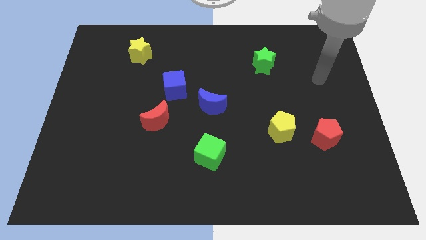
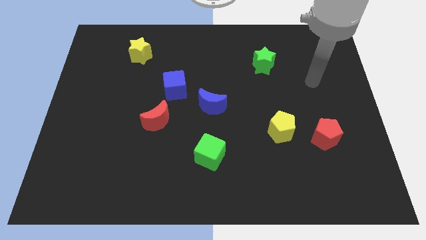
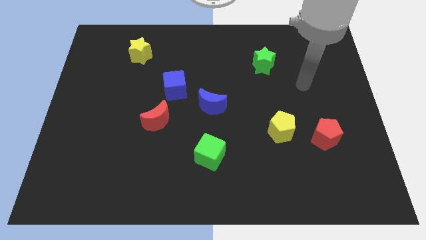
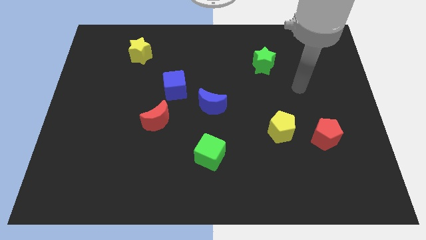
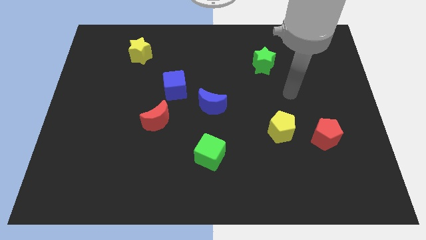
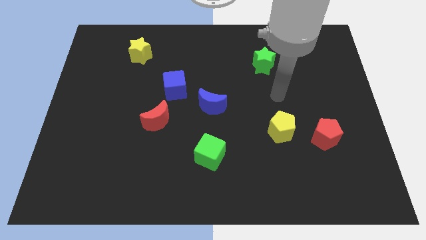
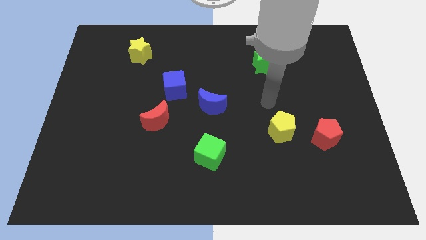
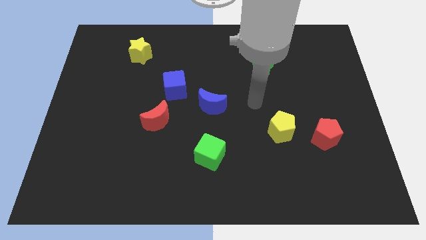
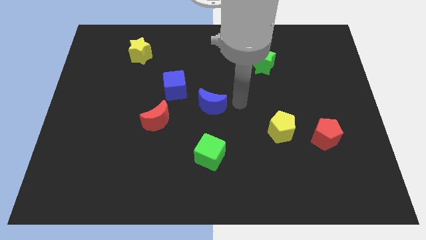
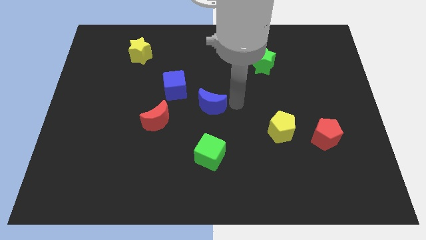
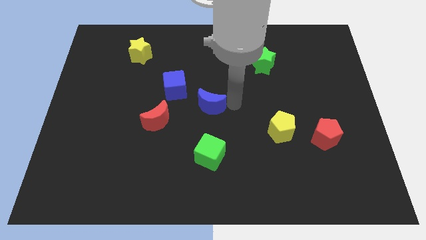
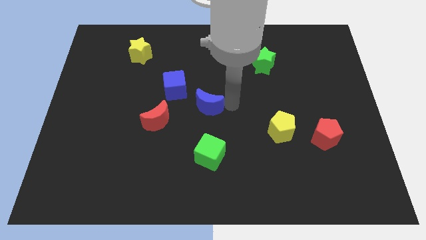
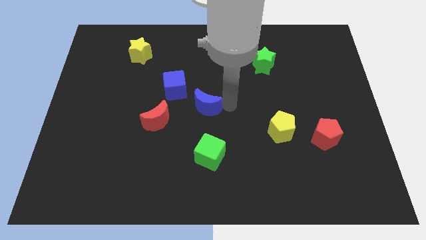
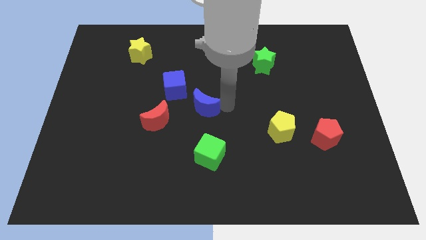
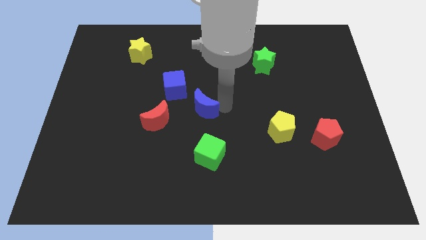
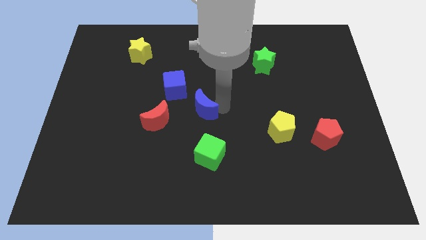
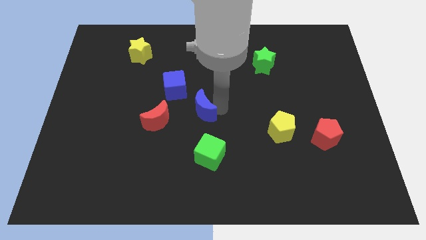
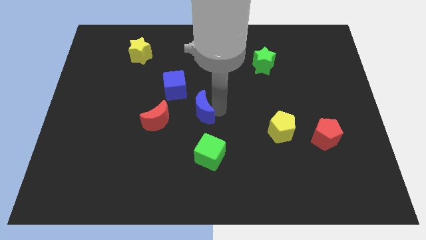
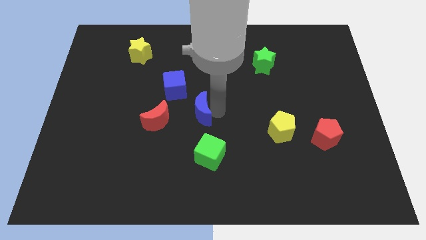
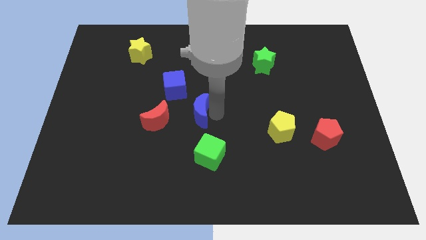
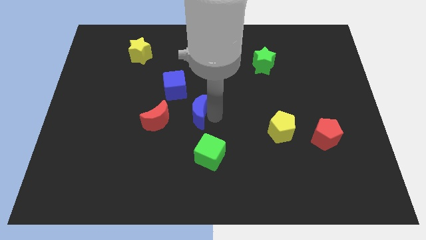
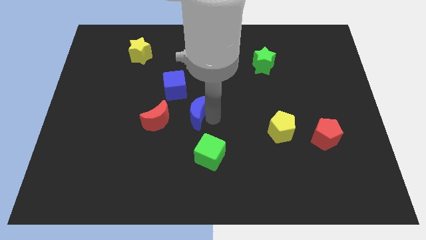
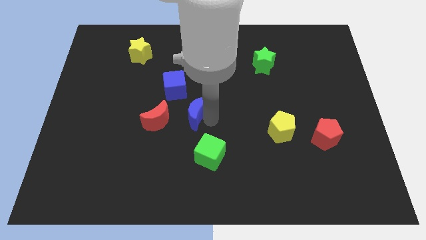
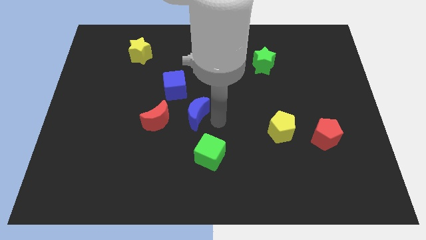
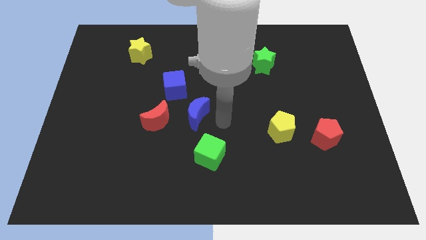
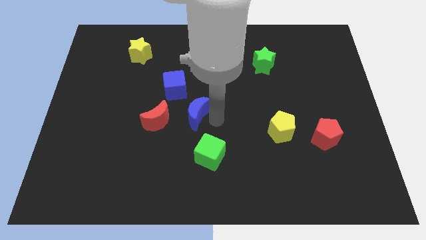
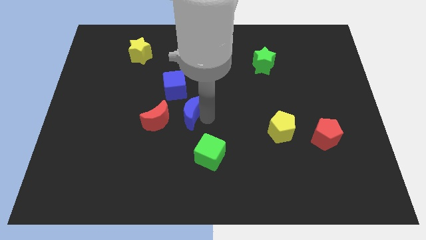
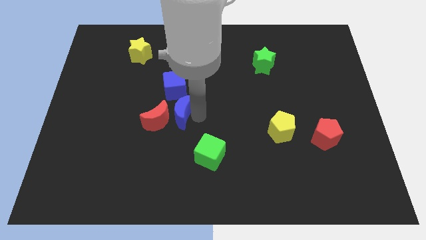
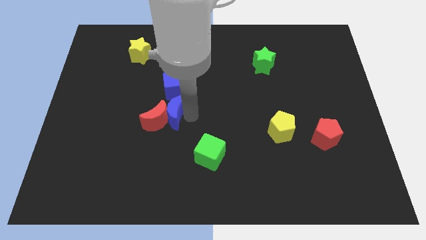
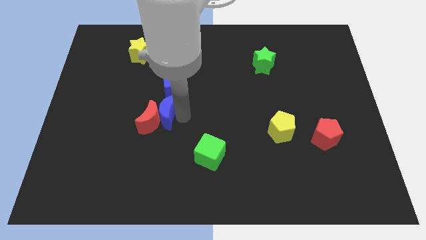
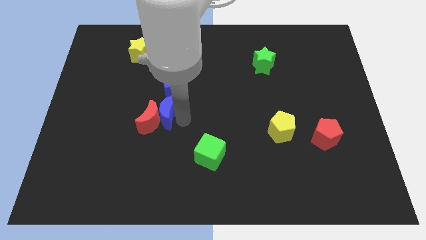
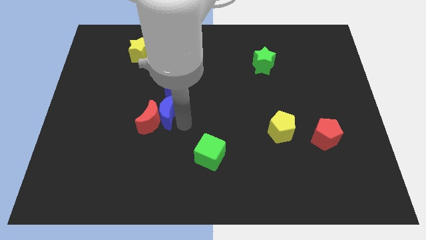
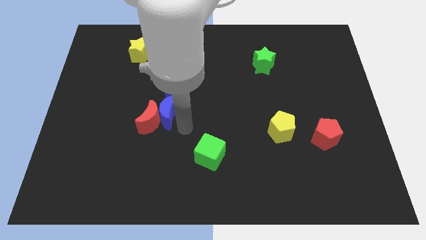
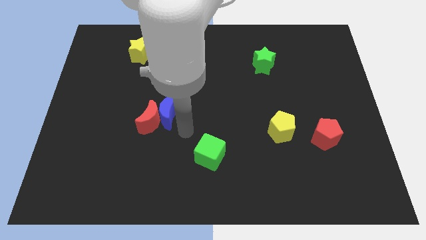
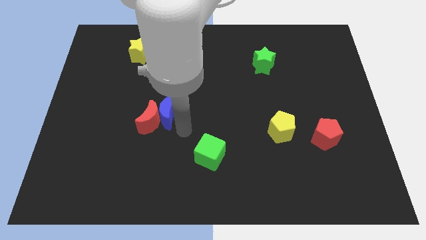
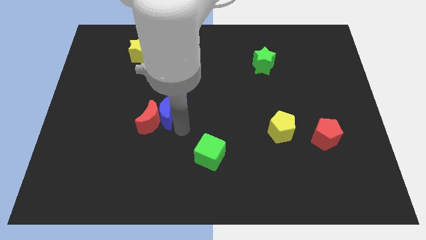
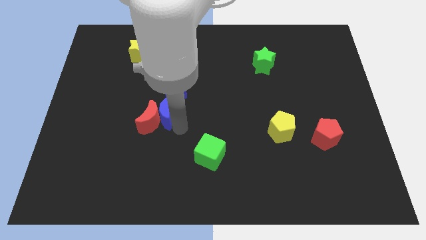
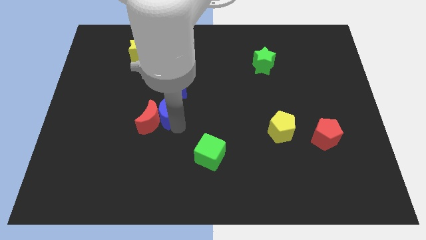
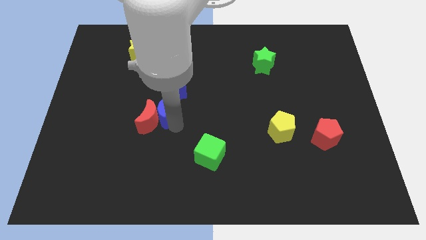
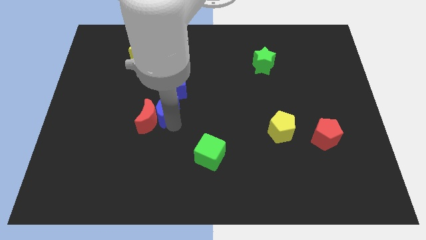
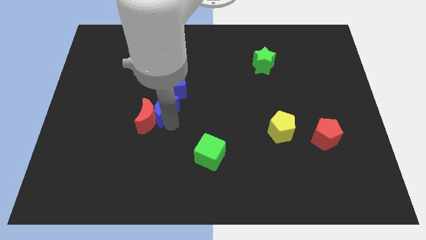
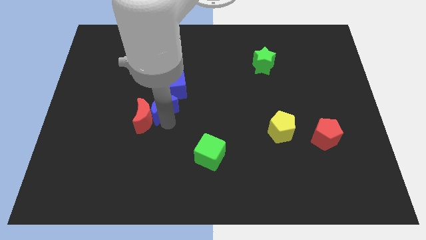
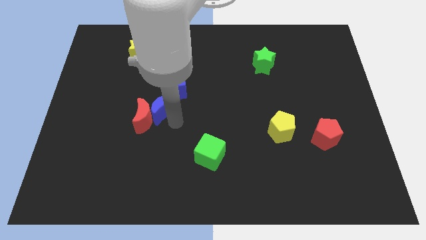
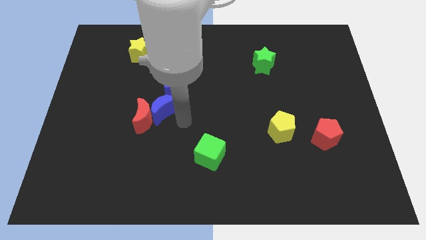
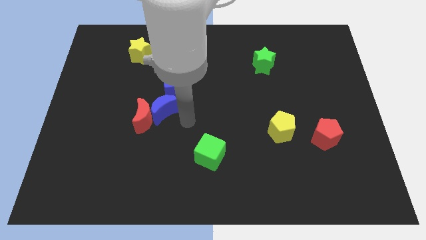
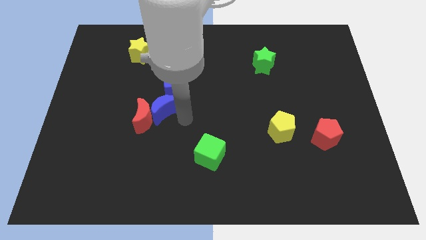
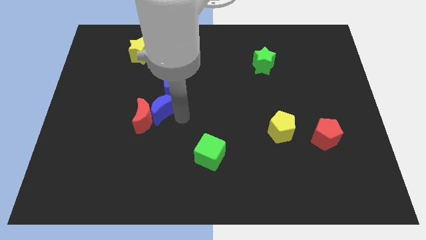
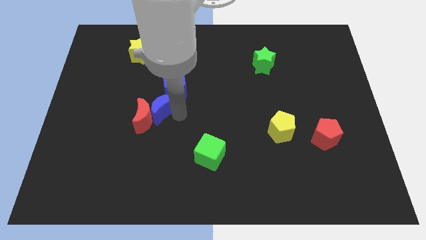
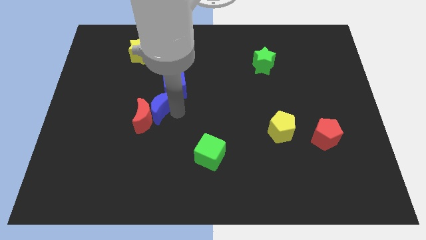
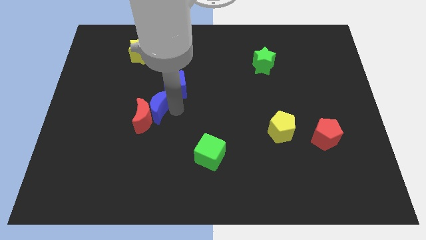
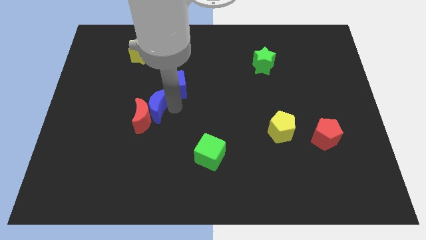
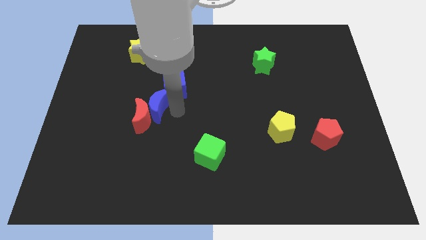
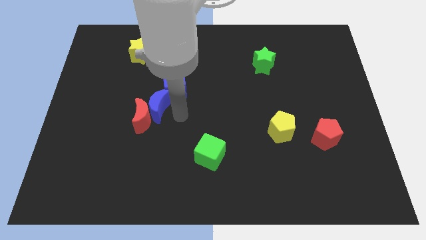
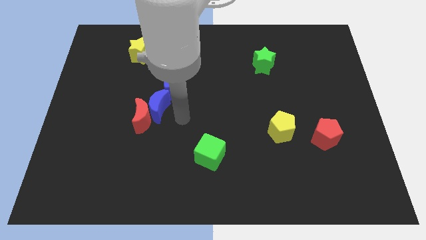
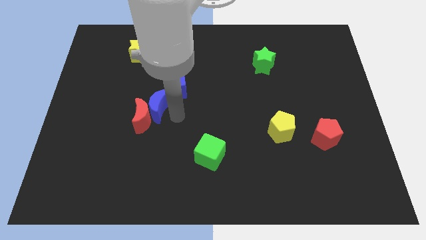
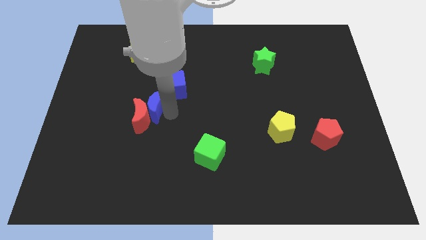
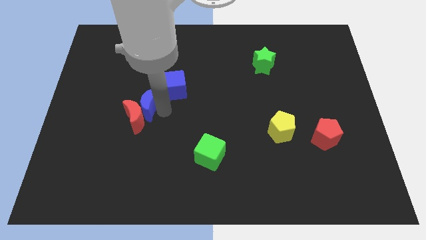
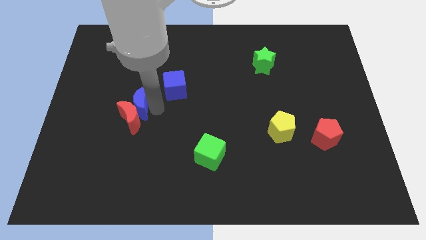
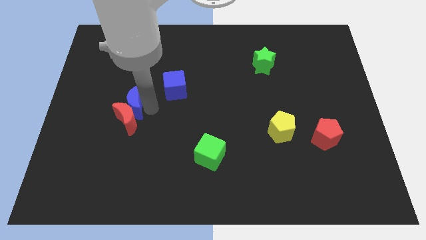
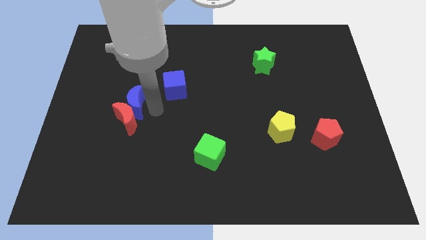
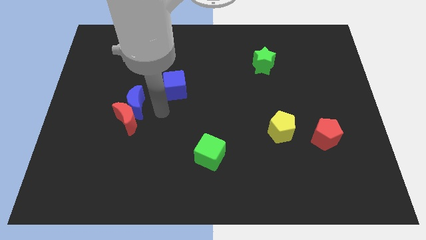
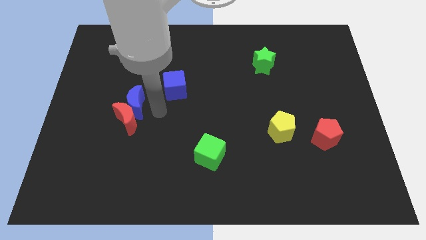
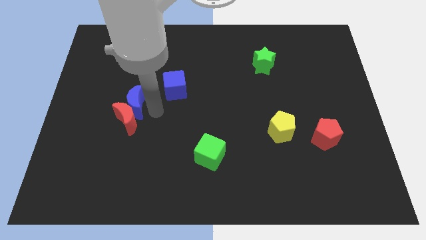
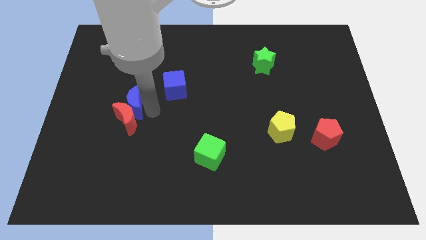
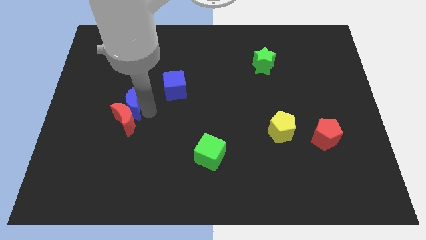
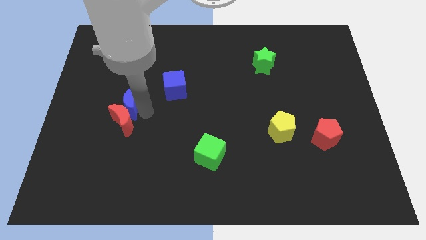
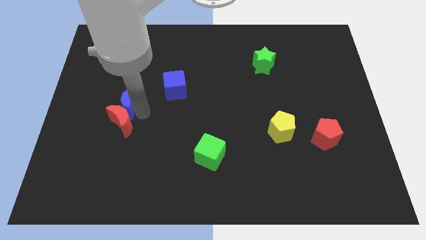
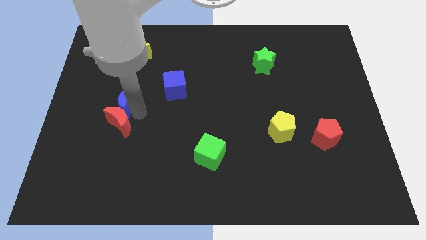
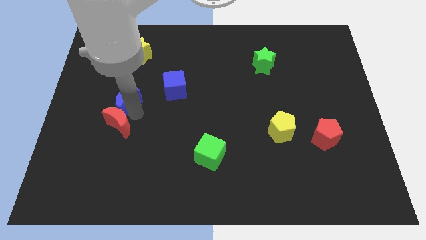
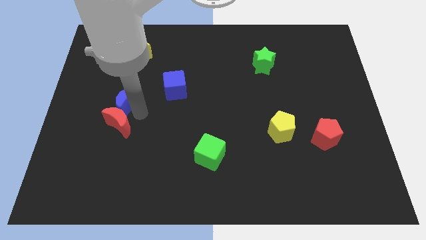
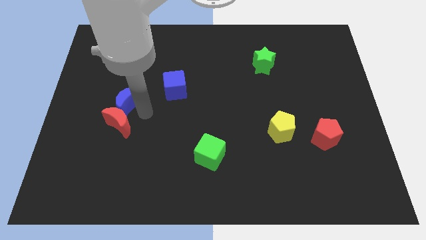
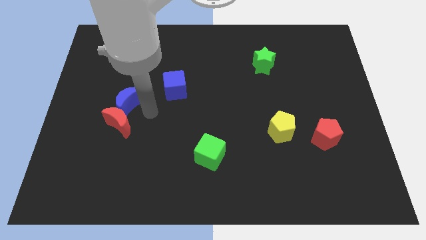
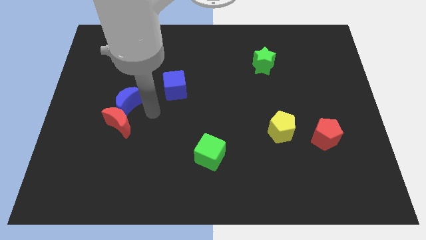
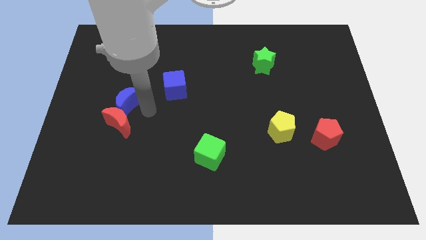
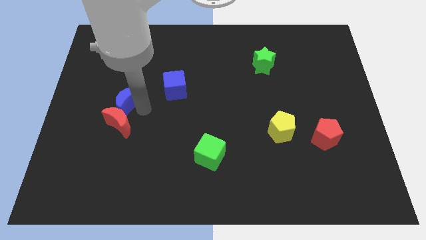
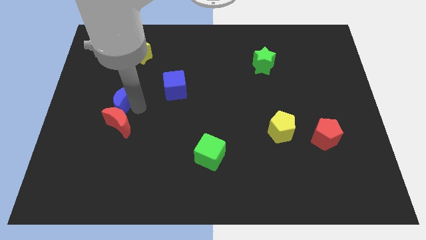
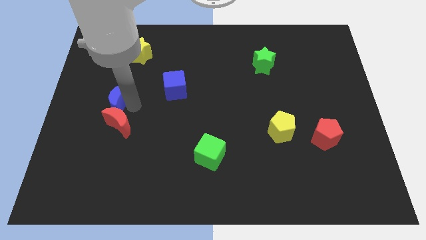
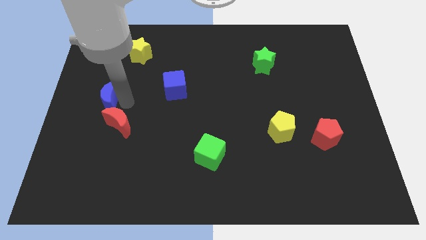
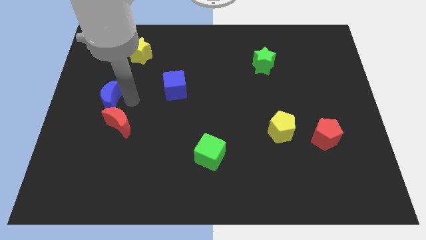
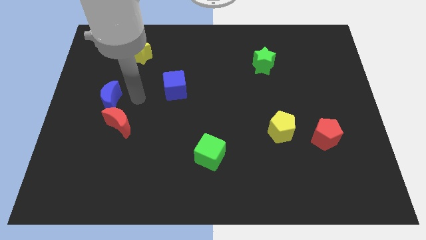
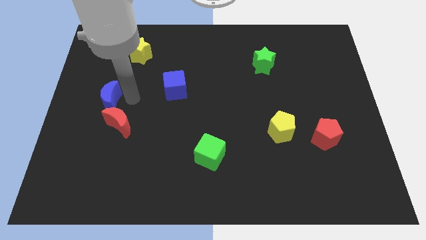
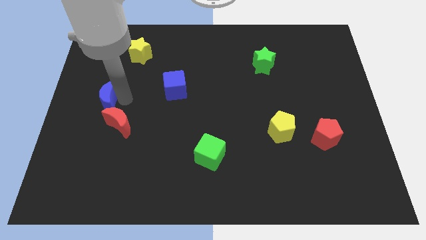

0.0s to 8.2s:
slide the blue moon to the left side
